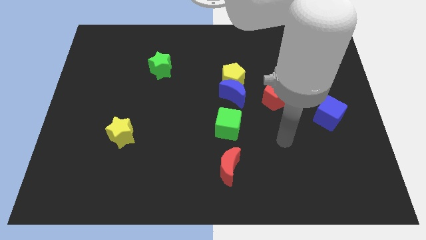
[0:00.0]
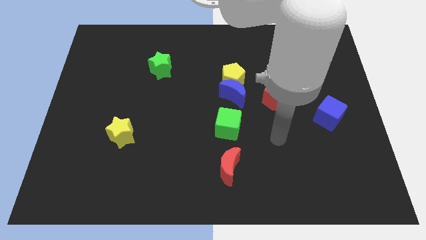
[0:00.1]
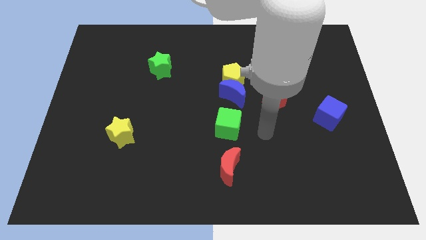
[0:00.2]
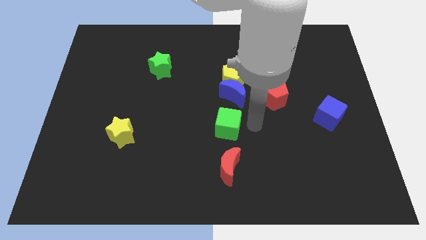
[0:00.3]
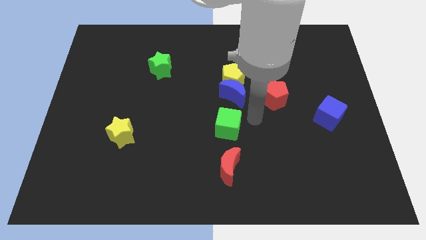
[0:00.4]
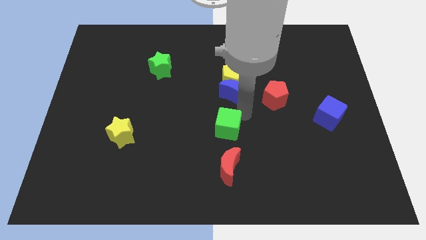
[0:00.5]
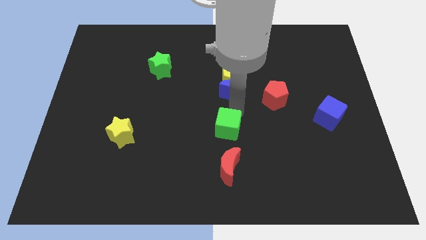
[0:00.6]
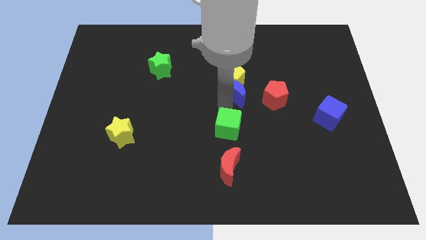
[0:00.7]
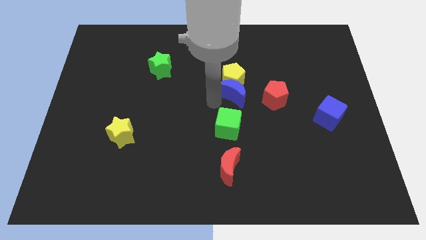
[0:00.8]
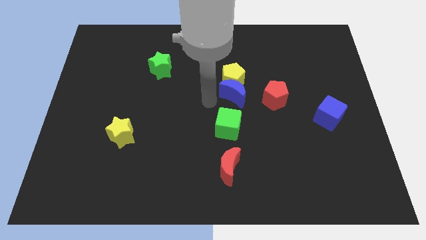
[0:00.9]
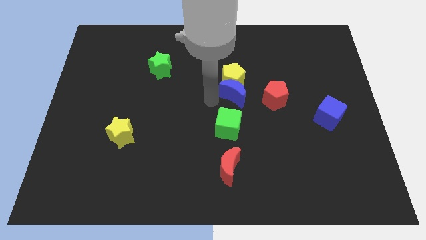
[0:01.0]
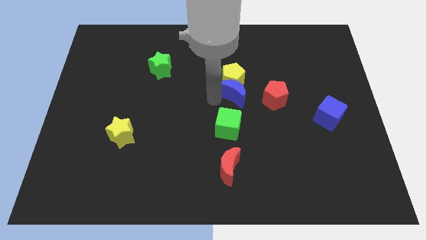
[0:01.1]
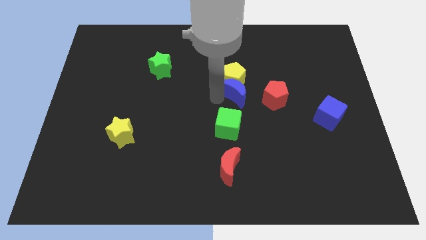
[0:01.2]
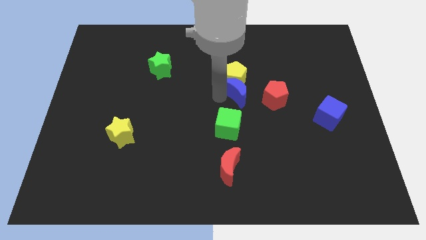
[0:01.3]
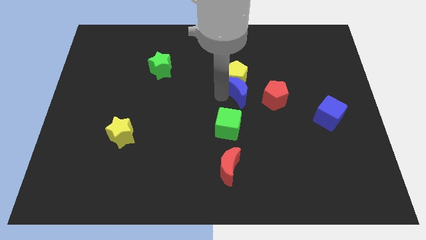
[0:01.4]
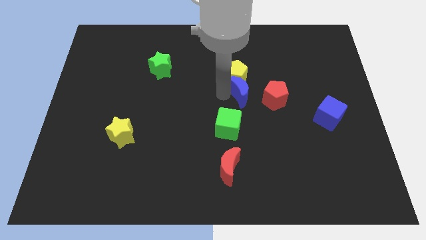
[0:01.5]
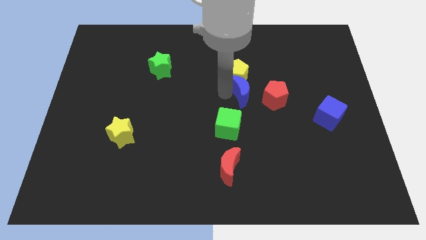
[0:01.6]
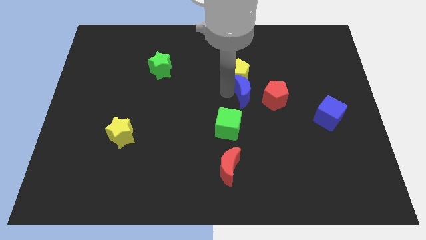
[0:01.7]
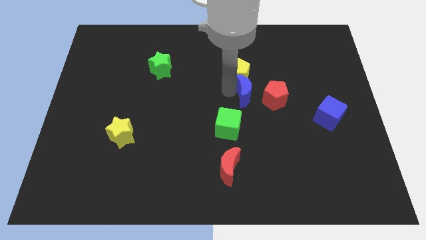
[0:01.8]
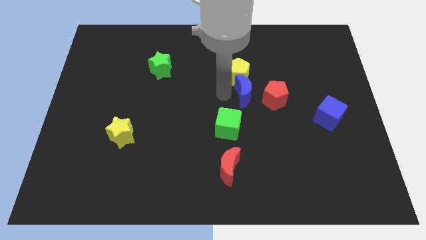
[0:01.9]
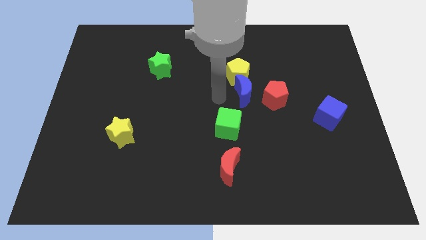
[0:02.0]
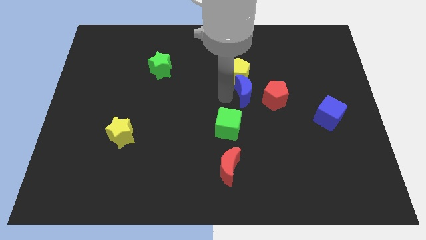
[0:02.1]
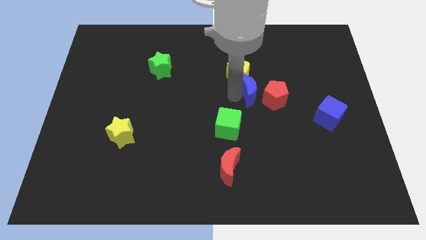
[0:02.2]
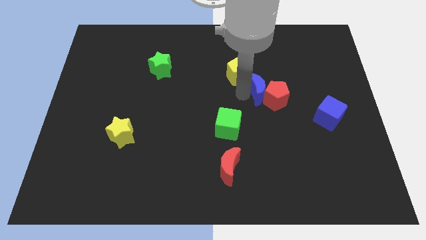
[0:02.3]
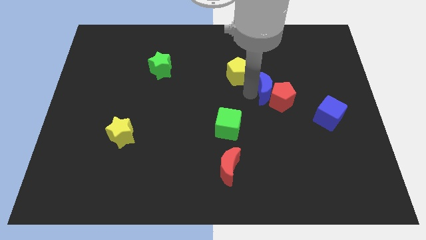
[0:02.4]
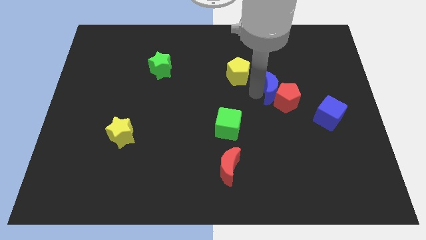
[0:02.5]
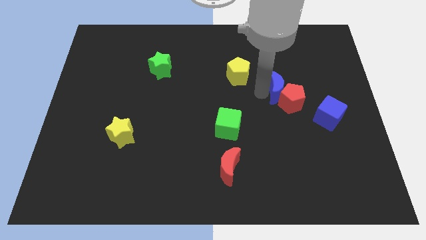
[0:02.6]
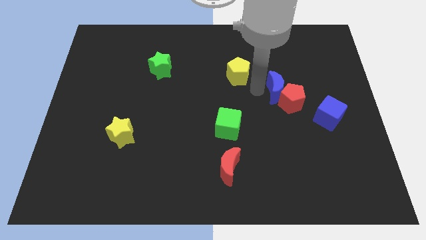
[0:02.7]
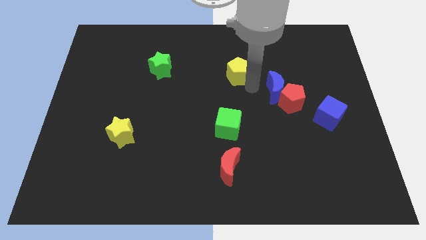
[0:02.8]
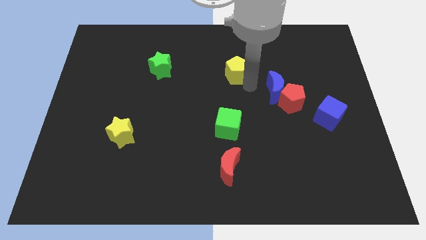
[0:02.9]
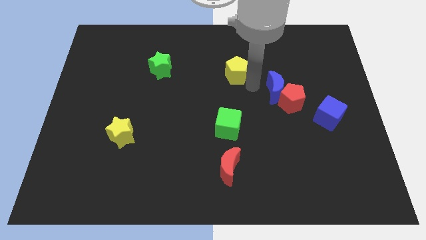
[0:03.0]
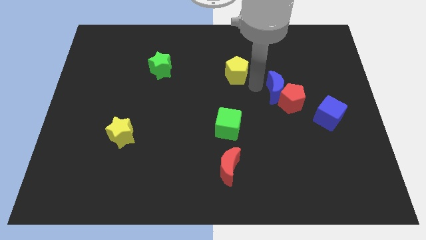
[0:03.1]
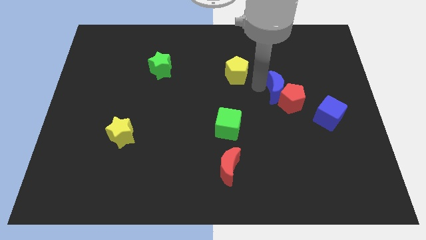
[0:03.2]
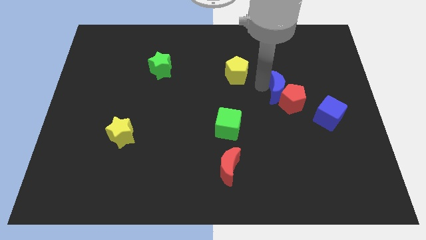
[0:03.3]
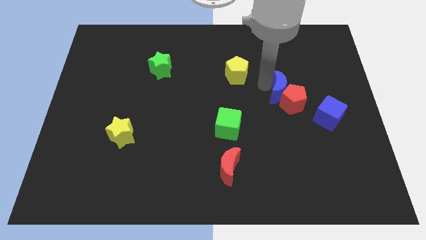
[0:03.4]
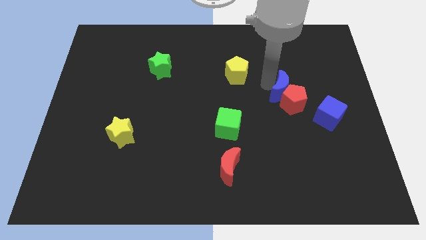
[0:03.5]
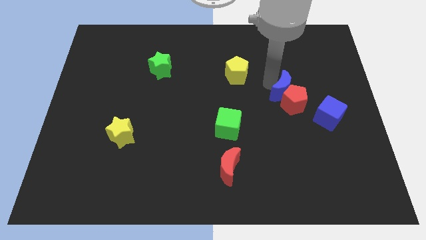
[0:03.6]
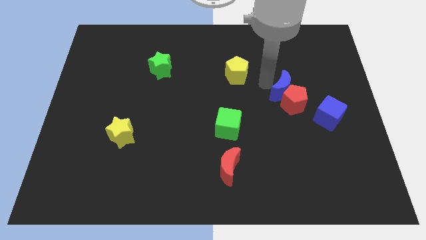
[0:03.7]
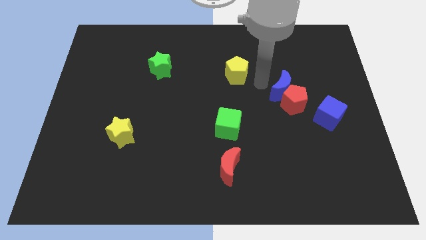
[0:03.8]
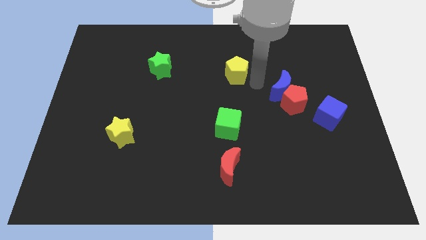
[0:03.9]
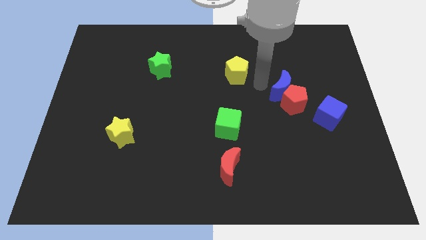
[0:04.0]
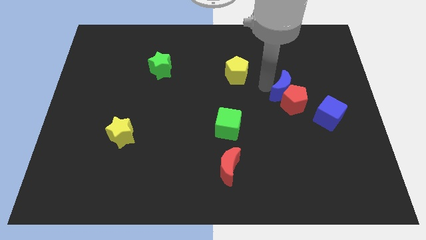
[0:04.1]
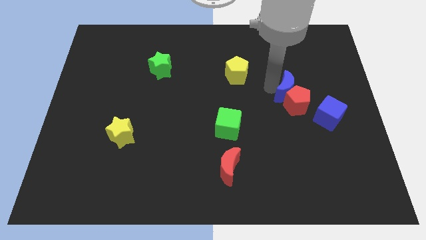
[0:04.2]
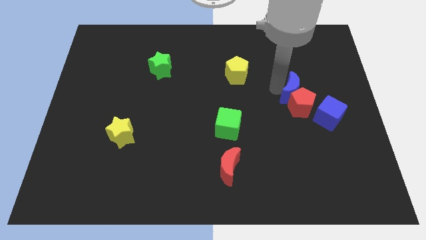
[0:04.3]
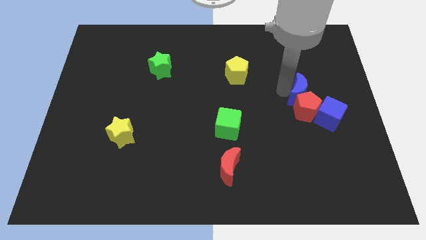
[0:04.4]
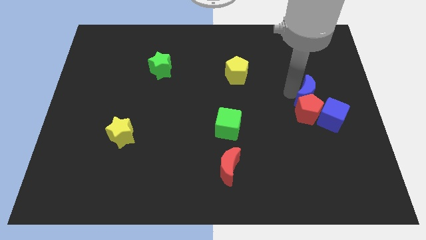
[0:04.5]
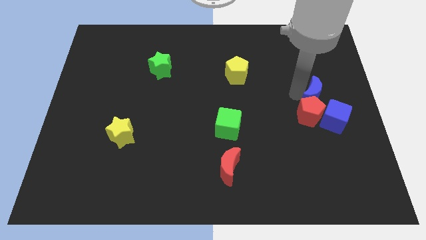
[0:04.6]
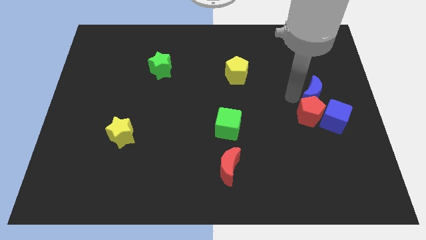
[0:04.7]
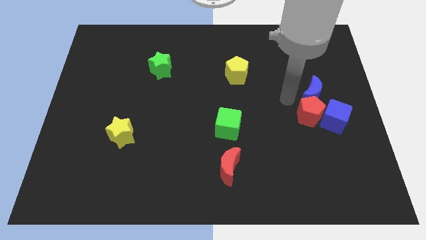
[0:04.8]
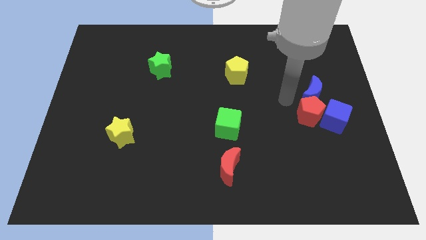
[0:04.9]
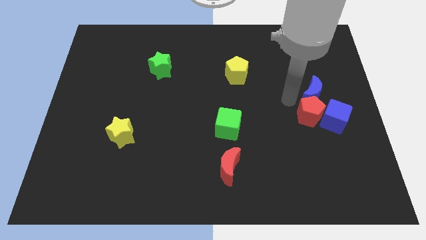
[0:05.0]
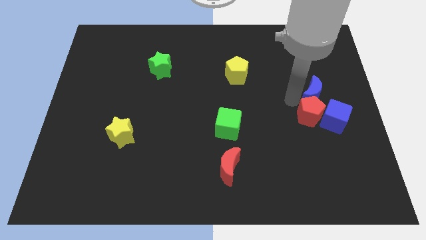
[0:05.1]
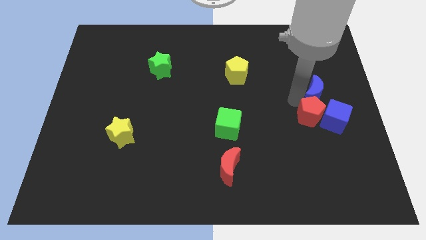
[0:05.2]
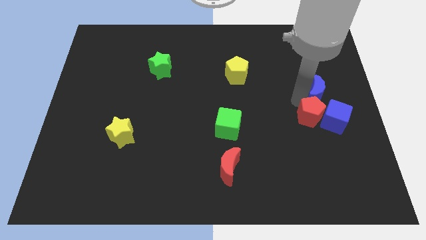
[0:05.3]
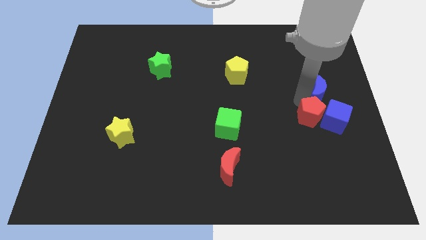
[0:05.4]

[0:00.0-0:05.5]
move the blue moon to the right side
